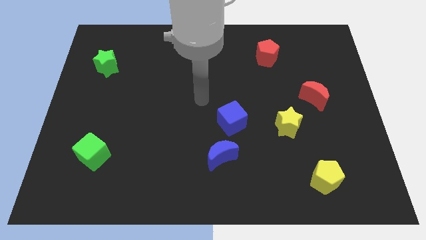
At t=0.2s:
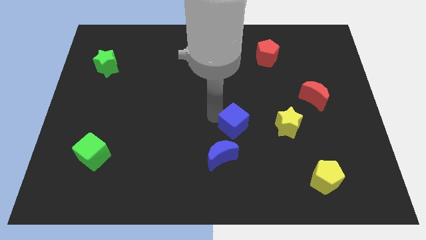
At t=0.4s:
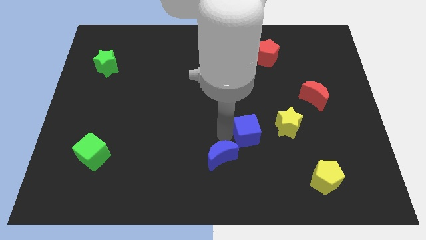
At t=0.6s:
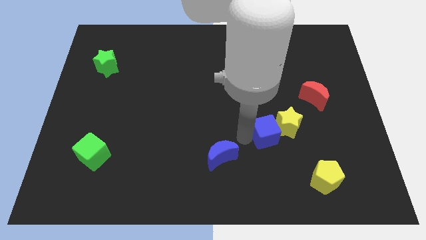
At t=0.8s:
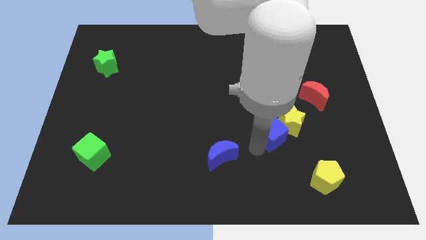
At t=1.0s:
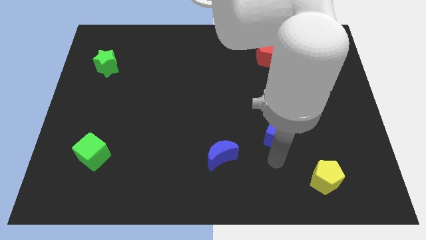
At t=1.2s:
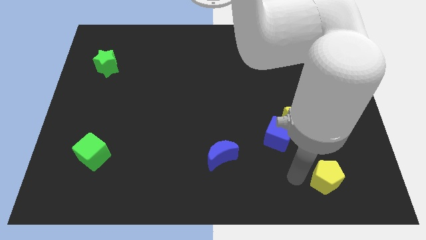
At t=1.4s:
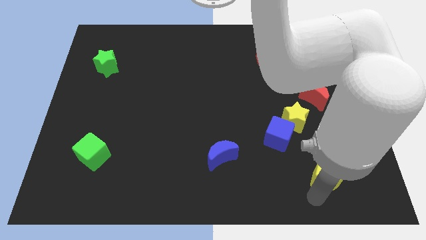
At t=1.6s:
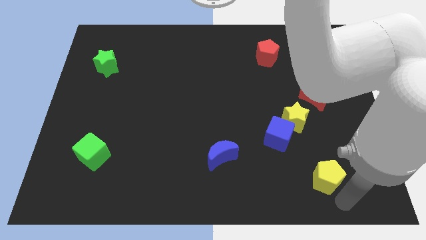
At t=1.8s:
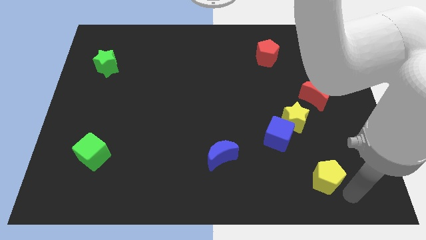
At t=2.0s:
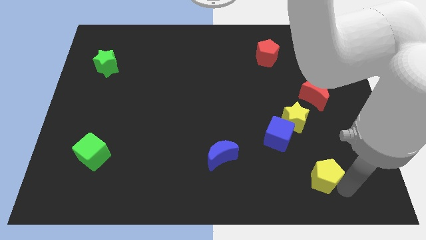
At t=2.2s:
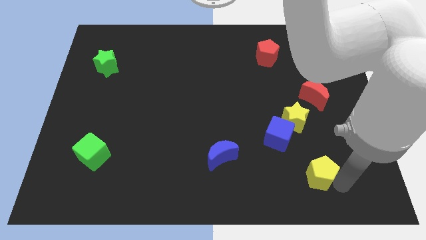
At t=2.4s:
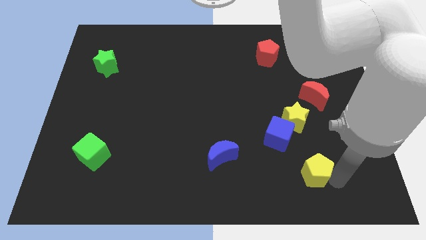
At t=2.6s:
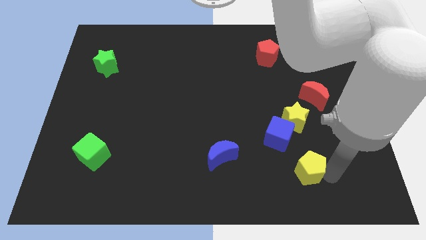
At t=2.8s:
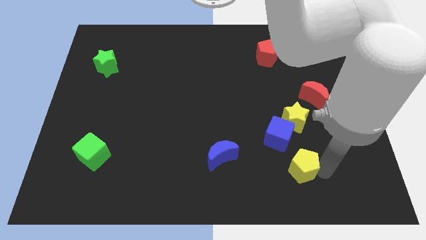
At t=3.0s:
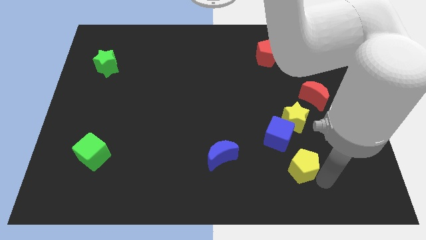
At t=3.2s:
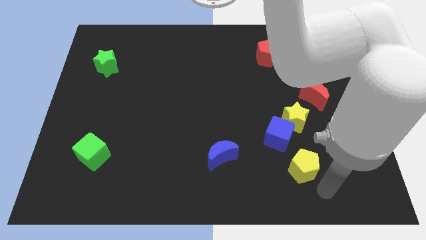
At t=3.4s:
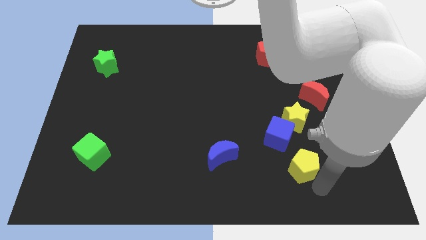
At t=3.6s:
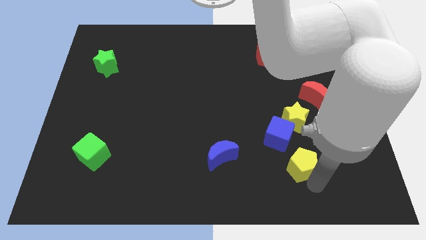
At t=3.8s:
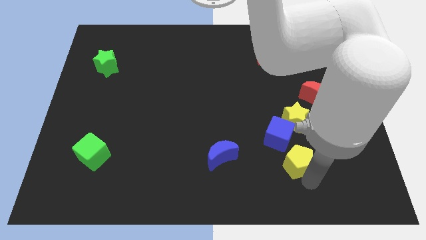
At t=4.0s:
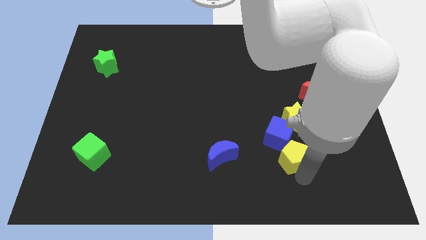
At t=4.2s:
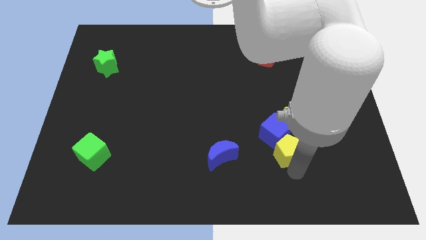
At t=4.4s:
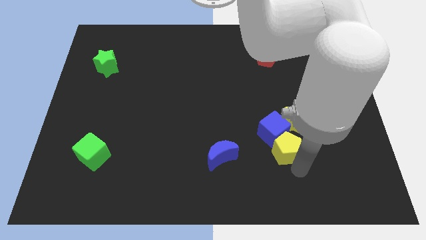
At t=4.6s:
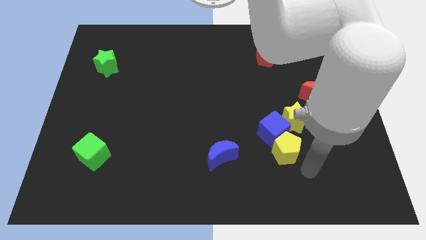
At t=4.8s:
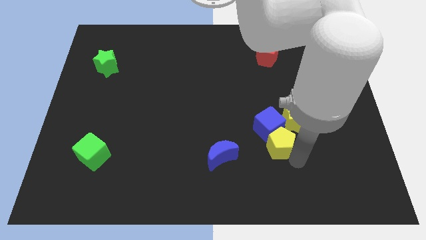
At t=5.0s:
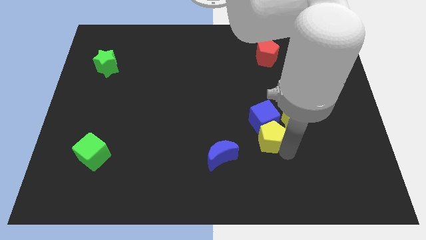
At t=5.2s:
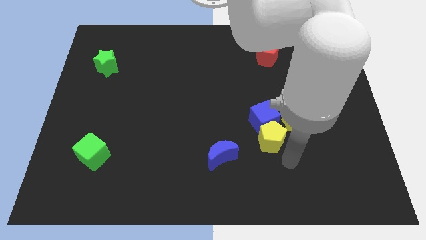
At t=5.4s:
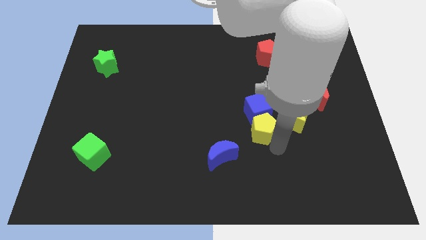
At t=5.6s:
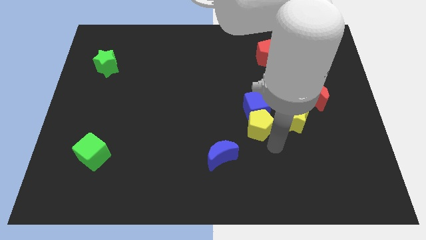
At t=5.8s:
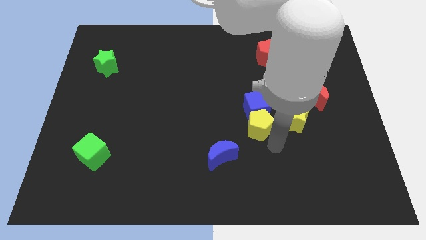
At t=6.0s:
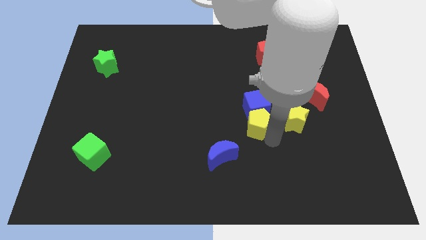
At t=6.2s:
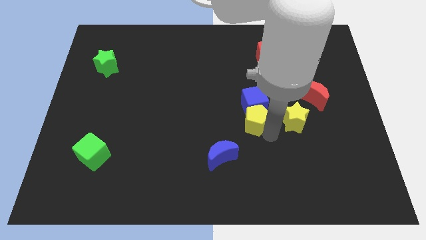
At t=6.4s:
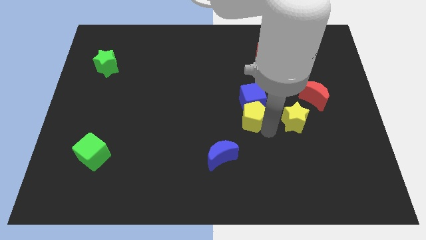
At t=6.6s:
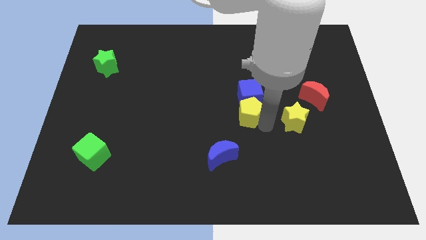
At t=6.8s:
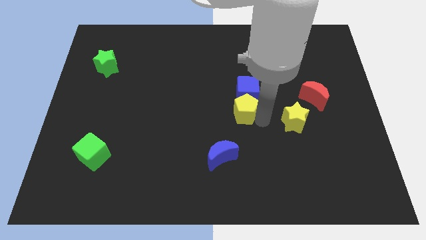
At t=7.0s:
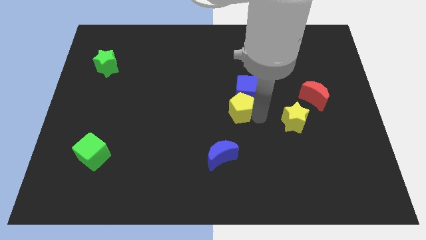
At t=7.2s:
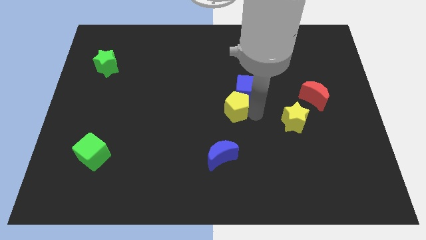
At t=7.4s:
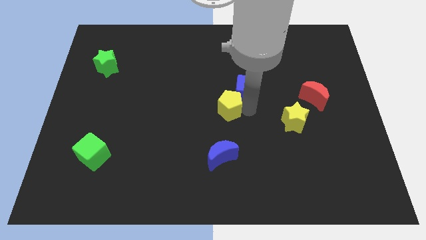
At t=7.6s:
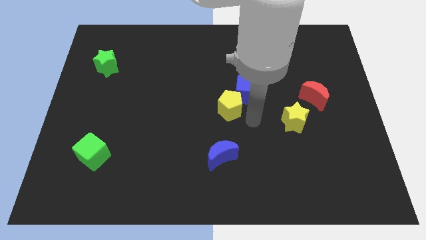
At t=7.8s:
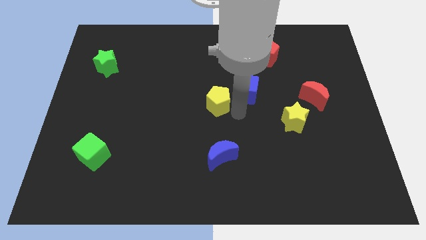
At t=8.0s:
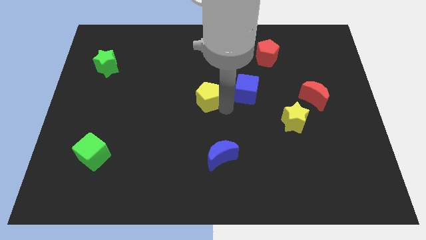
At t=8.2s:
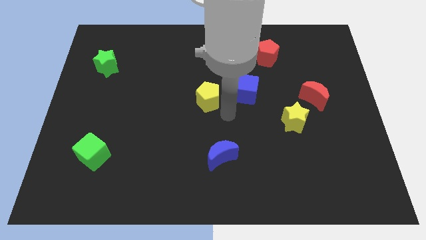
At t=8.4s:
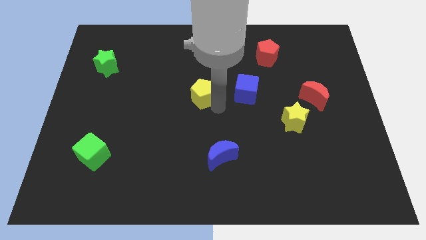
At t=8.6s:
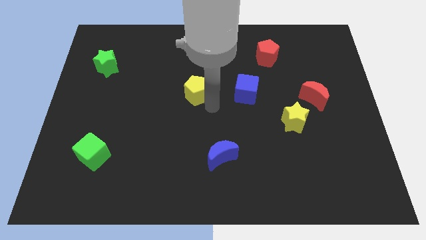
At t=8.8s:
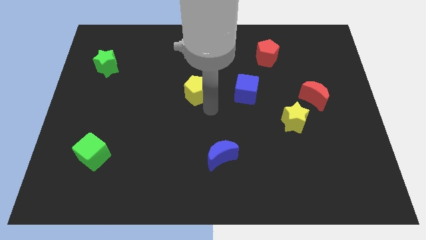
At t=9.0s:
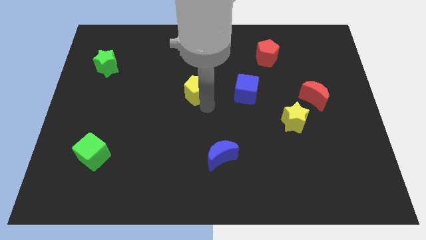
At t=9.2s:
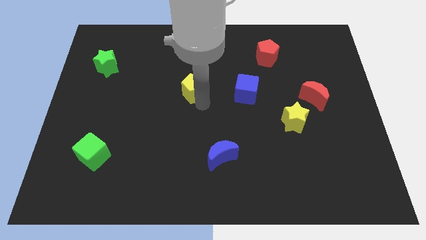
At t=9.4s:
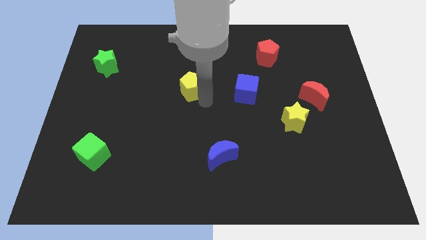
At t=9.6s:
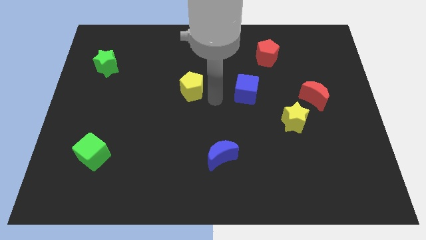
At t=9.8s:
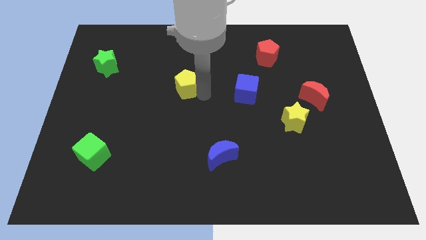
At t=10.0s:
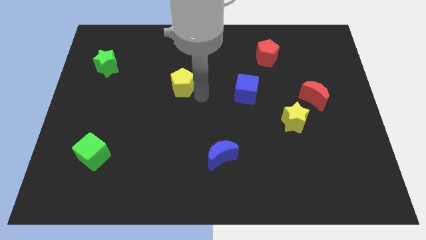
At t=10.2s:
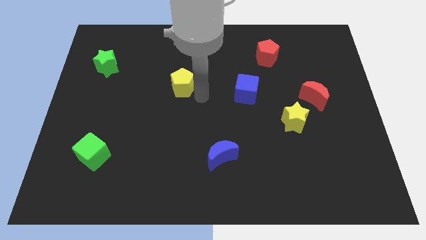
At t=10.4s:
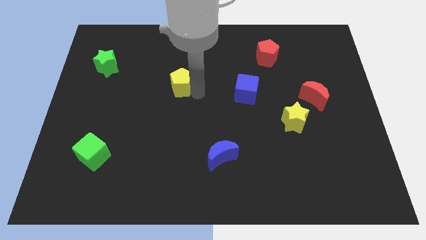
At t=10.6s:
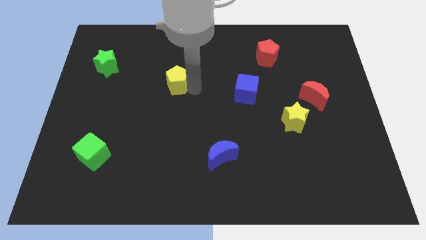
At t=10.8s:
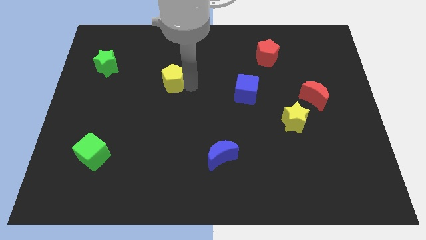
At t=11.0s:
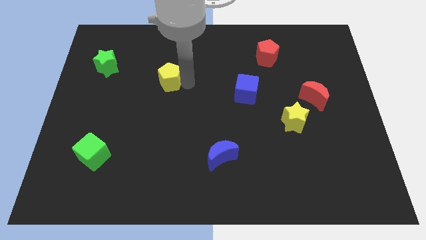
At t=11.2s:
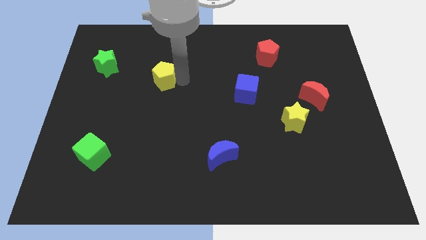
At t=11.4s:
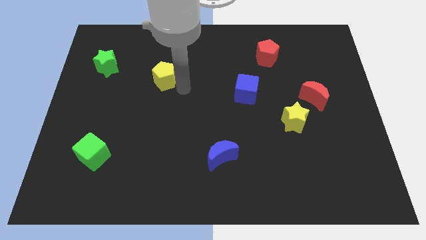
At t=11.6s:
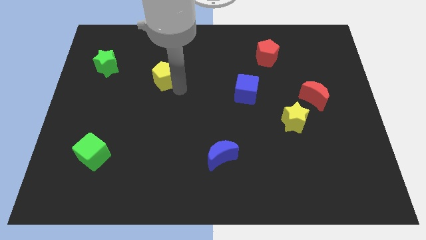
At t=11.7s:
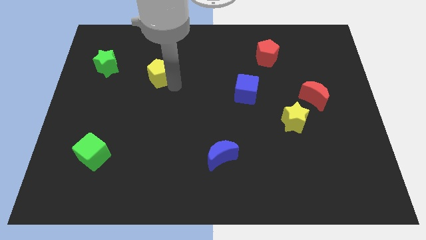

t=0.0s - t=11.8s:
put the yellow pentagon just right of the green star

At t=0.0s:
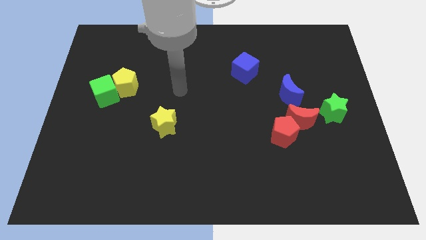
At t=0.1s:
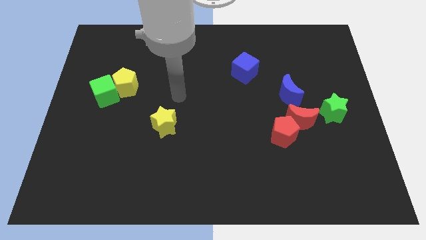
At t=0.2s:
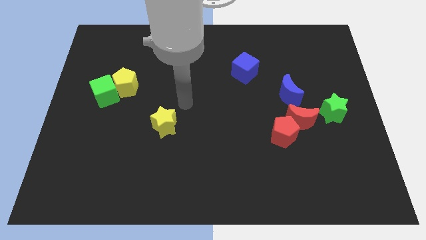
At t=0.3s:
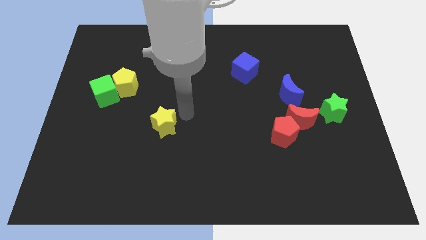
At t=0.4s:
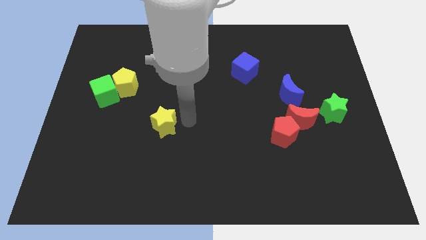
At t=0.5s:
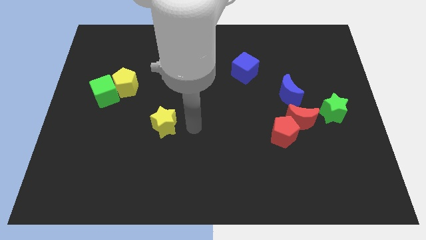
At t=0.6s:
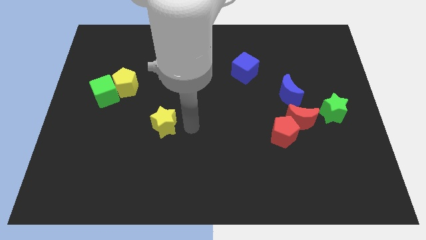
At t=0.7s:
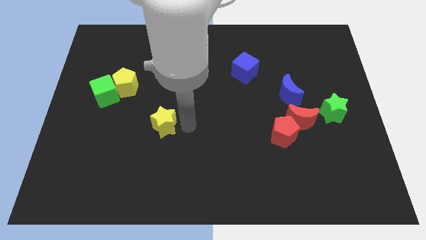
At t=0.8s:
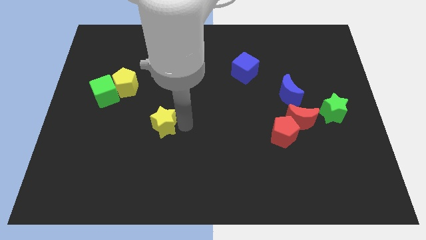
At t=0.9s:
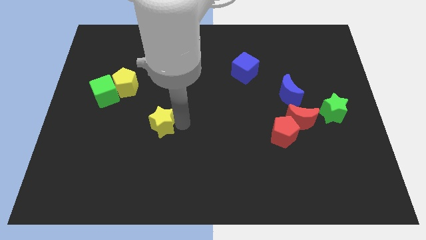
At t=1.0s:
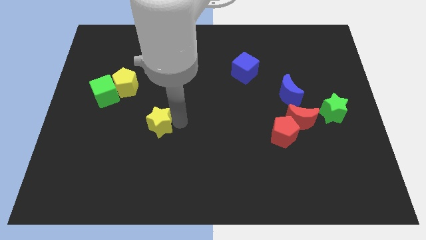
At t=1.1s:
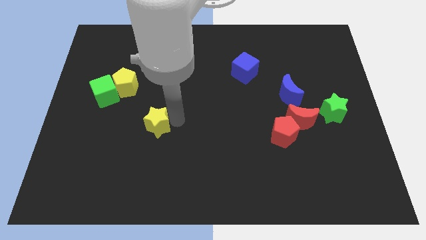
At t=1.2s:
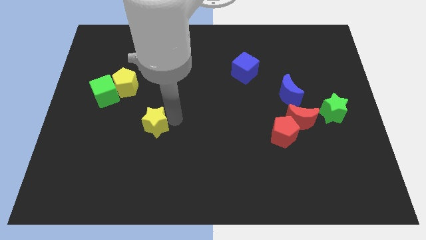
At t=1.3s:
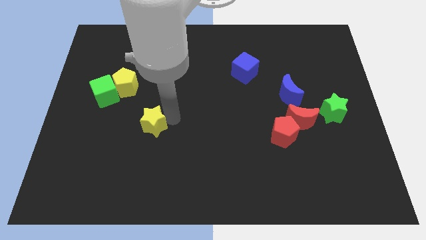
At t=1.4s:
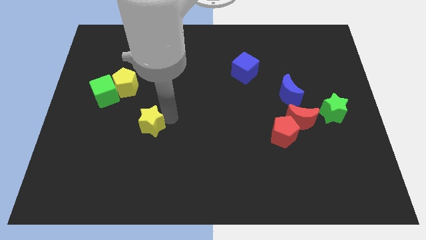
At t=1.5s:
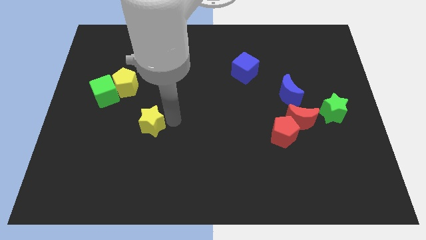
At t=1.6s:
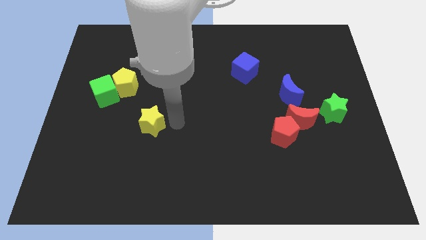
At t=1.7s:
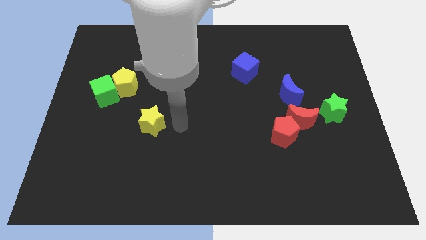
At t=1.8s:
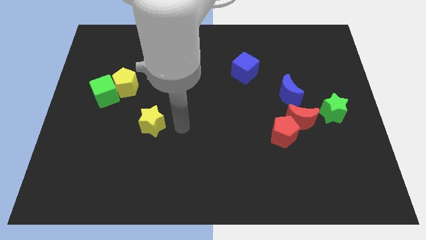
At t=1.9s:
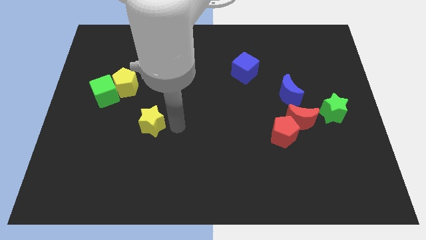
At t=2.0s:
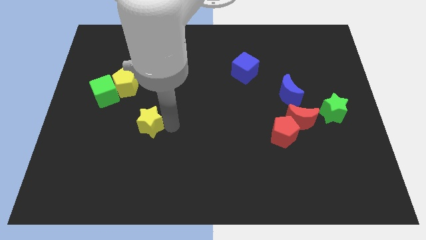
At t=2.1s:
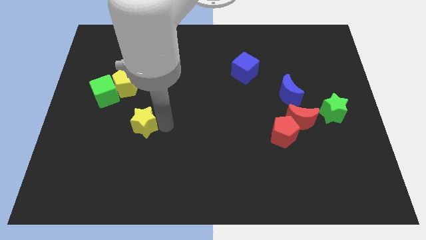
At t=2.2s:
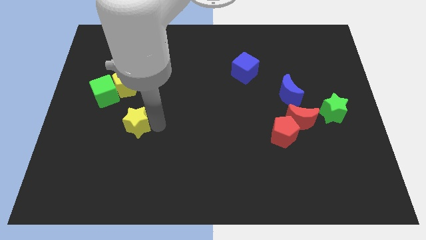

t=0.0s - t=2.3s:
move the yellow star below the yellow pentagon
